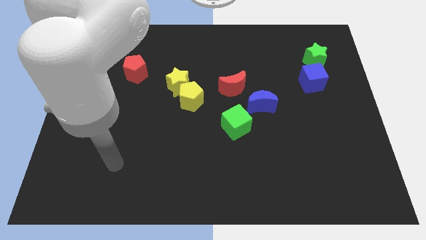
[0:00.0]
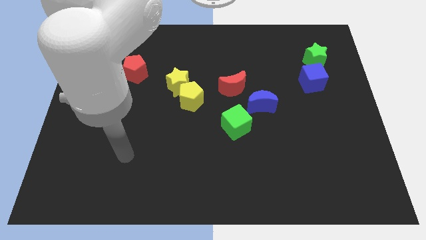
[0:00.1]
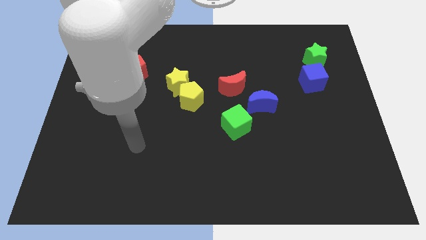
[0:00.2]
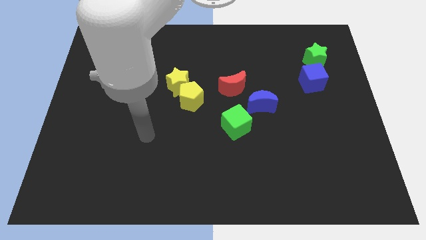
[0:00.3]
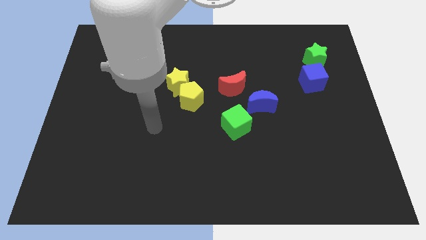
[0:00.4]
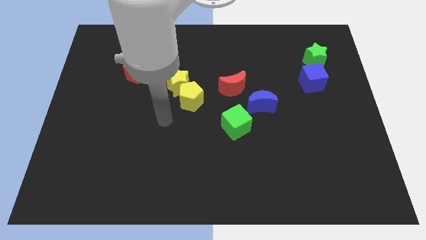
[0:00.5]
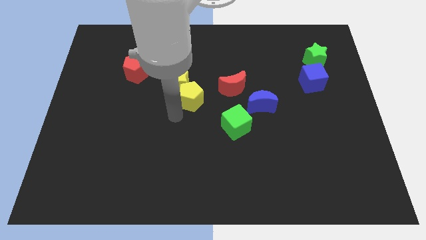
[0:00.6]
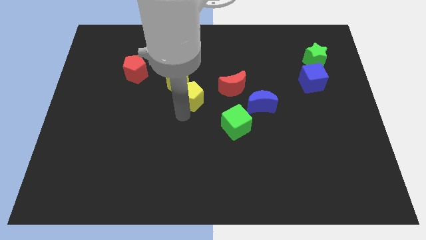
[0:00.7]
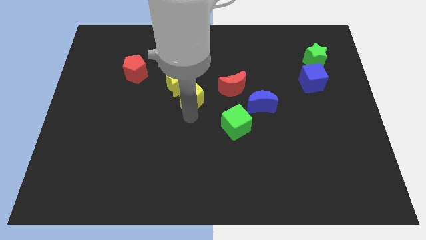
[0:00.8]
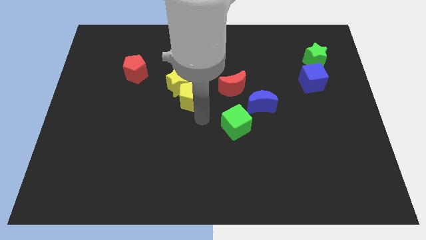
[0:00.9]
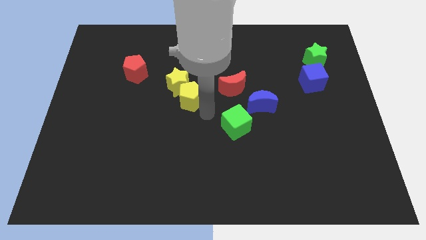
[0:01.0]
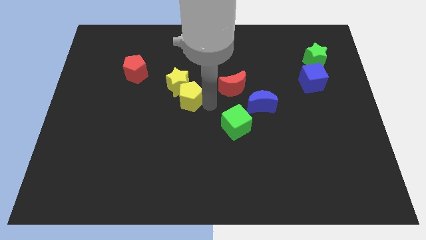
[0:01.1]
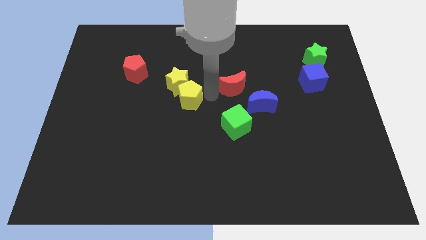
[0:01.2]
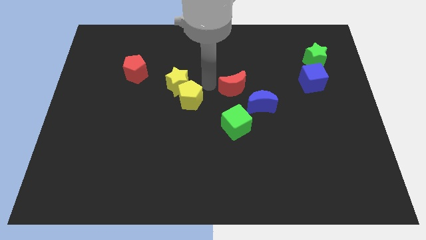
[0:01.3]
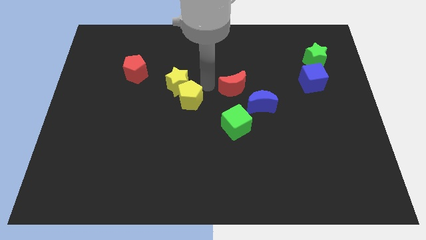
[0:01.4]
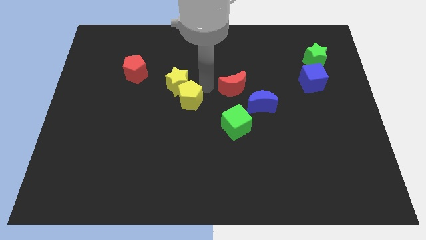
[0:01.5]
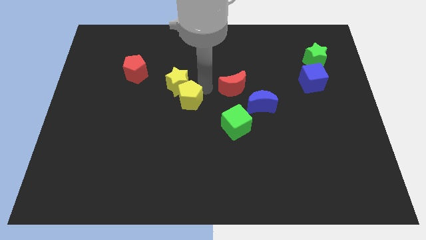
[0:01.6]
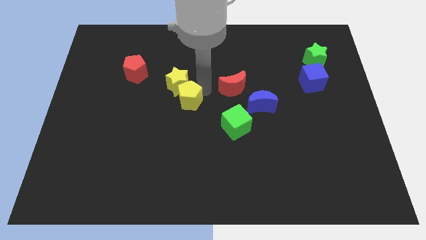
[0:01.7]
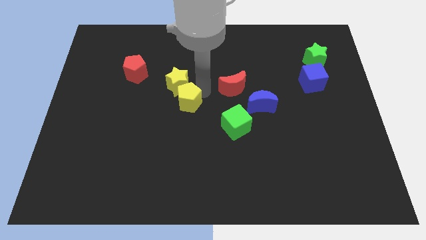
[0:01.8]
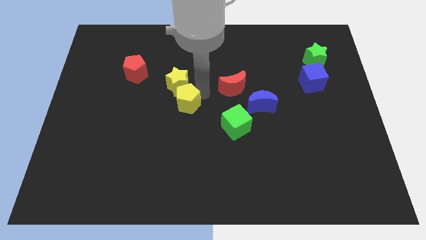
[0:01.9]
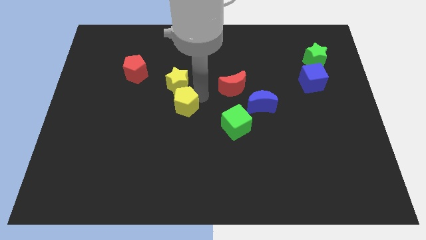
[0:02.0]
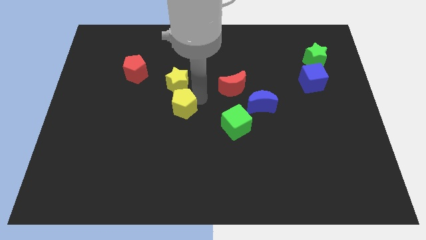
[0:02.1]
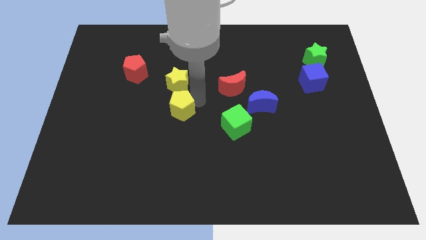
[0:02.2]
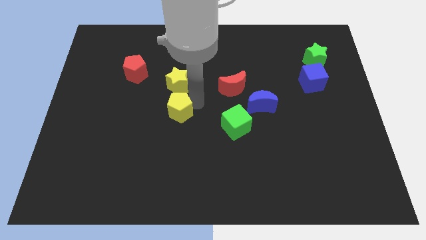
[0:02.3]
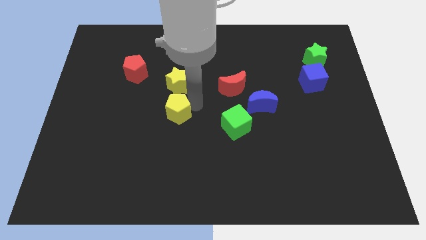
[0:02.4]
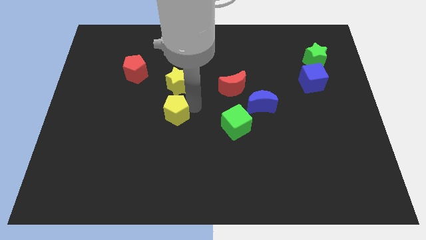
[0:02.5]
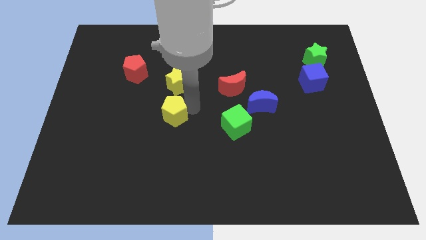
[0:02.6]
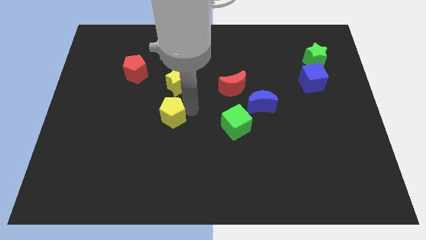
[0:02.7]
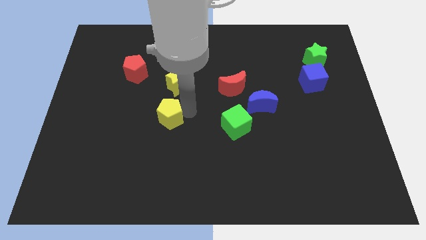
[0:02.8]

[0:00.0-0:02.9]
push the yellow pentagon diagonally down and left a little

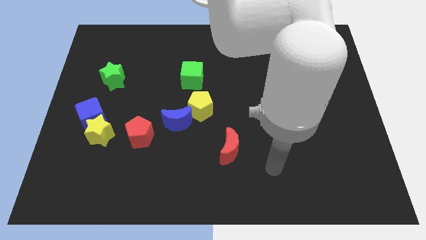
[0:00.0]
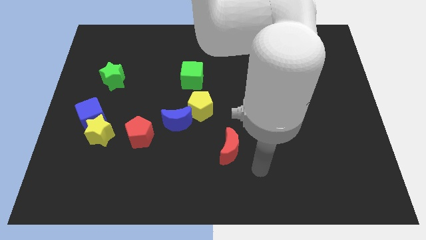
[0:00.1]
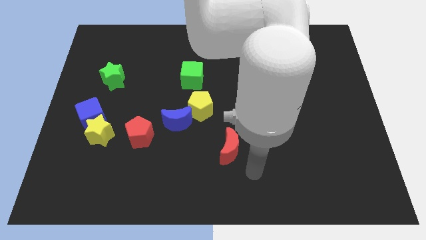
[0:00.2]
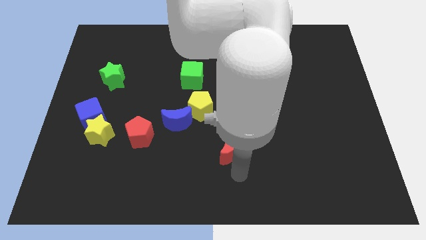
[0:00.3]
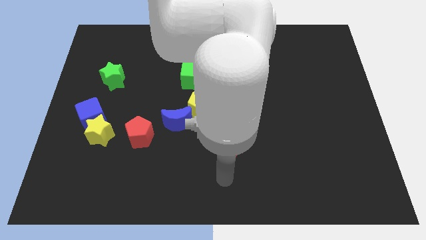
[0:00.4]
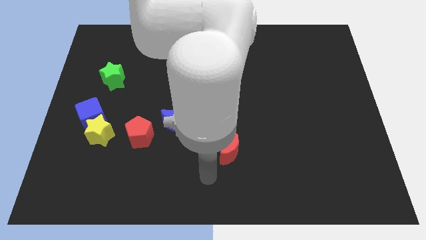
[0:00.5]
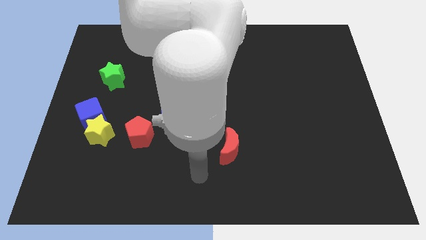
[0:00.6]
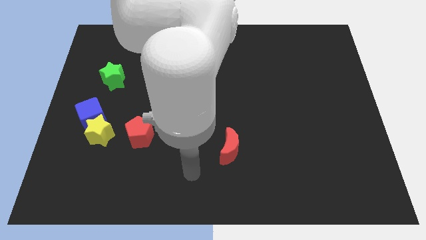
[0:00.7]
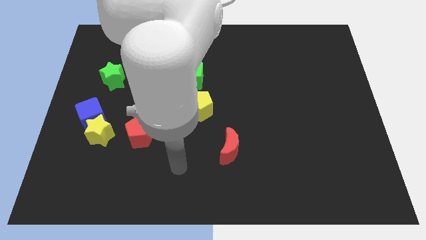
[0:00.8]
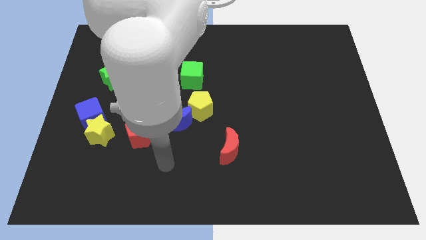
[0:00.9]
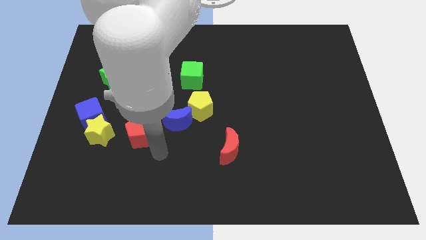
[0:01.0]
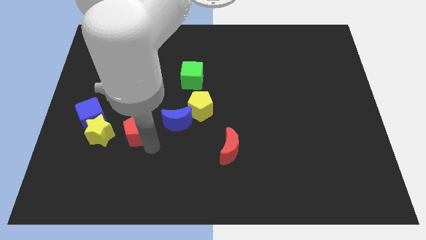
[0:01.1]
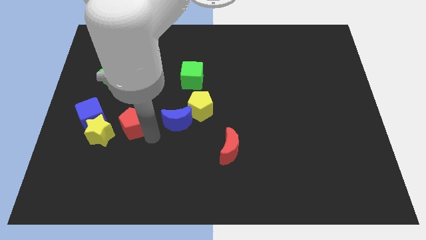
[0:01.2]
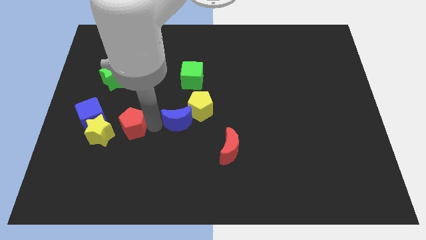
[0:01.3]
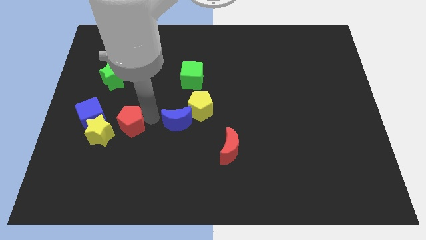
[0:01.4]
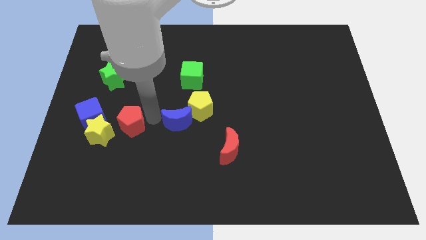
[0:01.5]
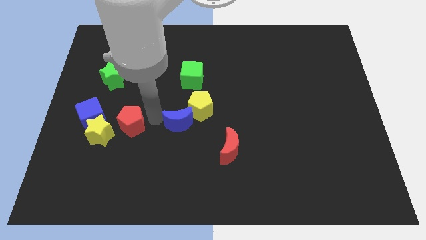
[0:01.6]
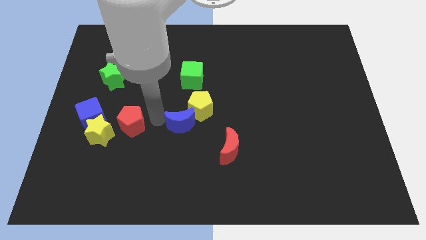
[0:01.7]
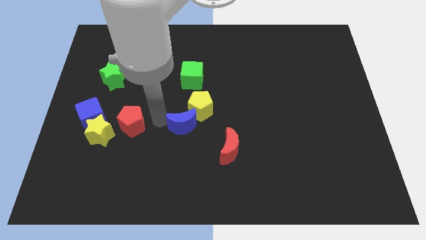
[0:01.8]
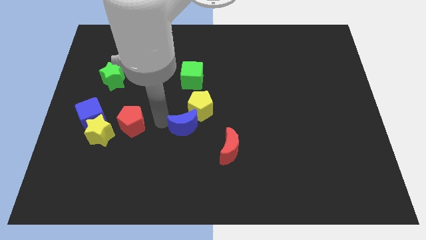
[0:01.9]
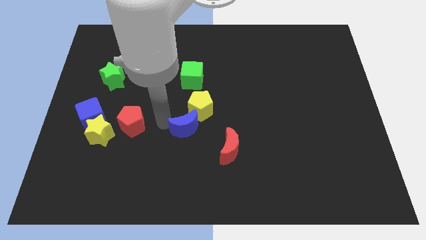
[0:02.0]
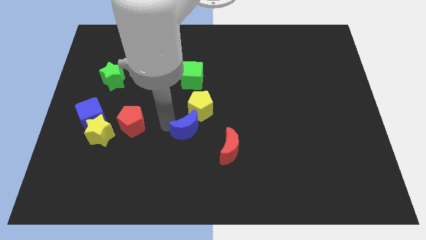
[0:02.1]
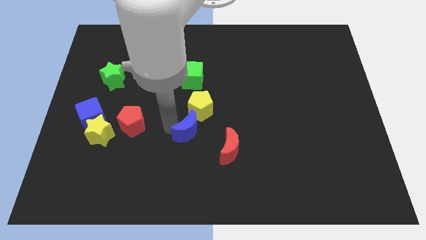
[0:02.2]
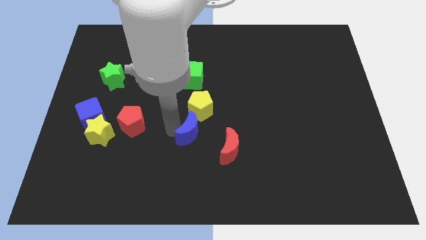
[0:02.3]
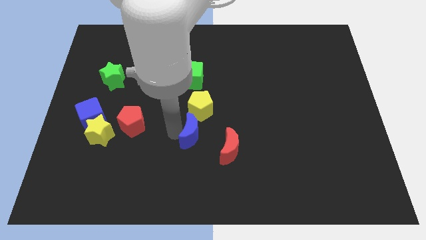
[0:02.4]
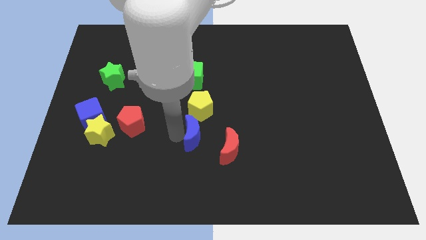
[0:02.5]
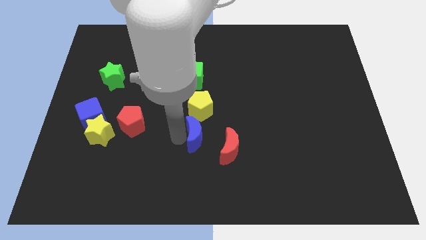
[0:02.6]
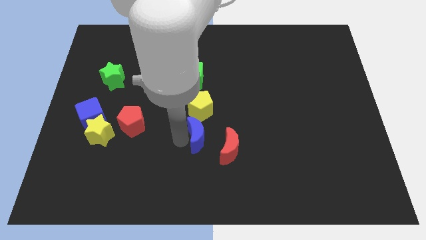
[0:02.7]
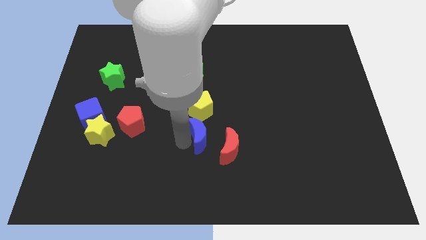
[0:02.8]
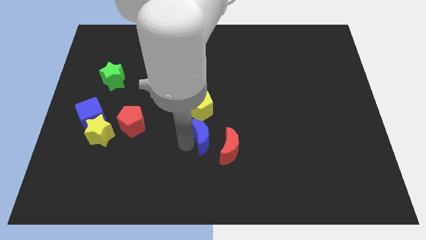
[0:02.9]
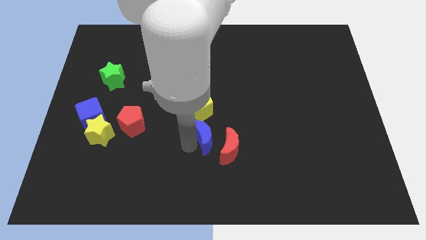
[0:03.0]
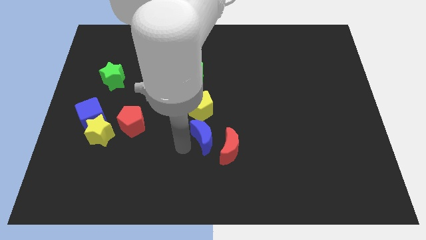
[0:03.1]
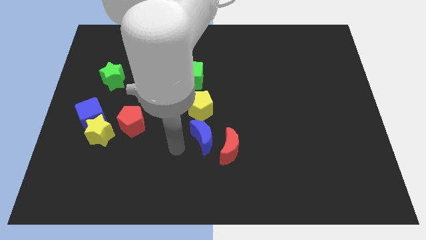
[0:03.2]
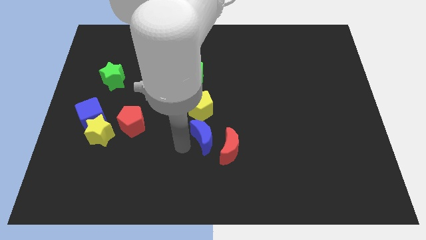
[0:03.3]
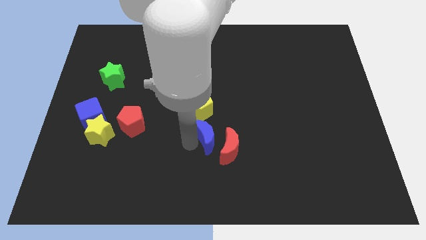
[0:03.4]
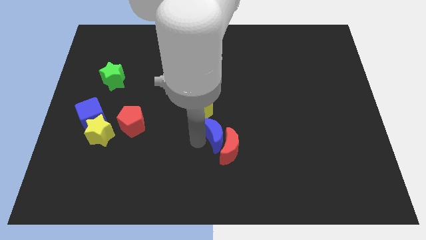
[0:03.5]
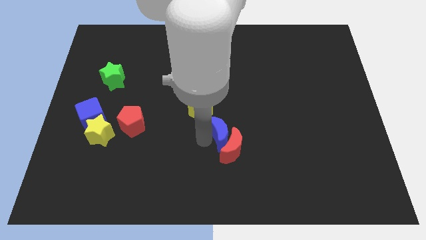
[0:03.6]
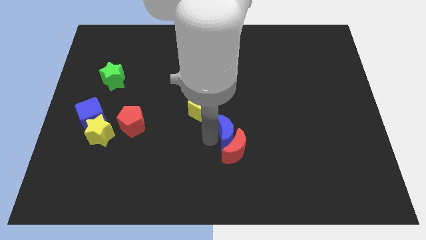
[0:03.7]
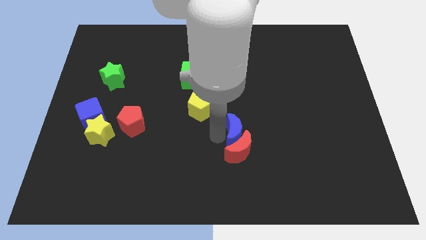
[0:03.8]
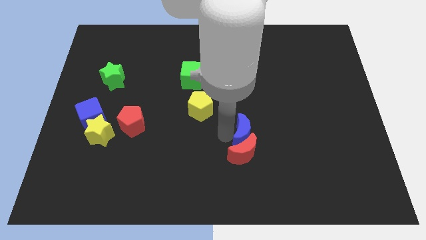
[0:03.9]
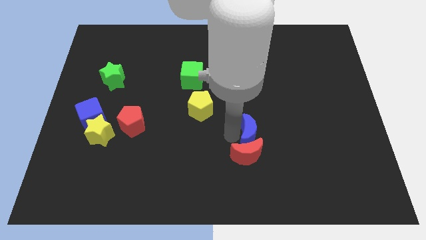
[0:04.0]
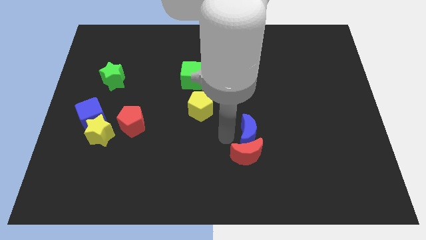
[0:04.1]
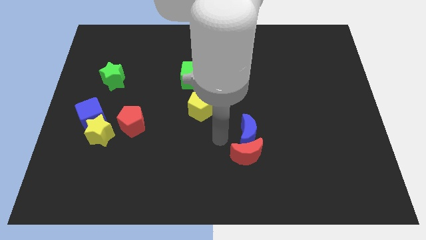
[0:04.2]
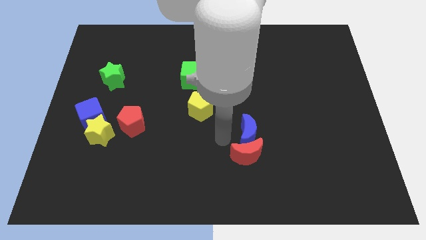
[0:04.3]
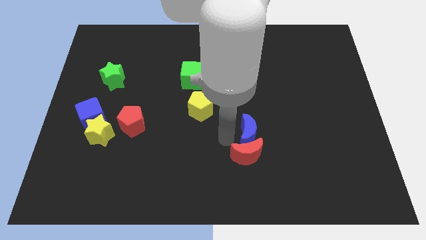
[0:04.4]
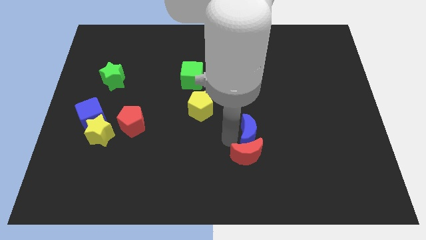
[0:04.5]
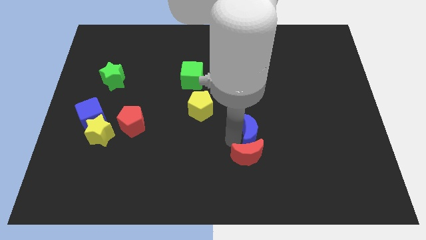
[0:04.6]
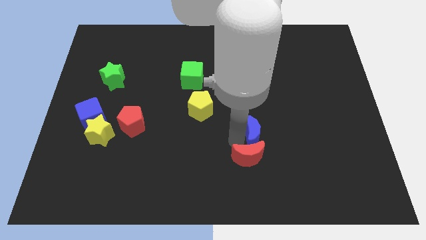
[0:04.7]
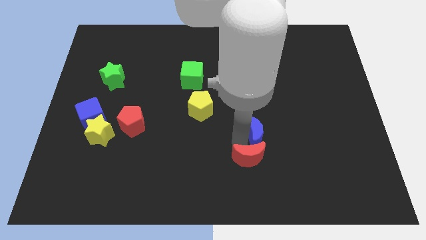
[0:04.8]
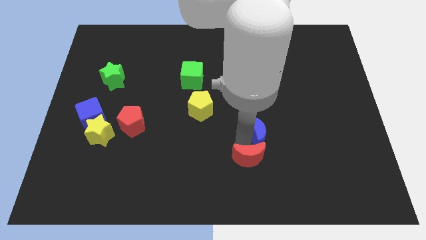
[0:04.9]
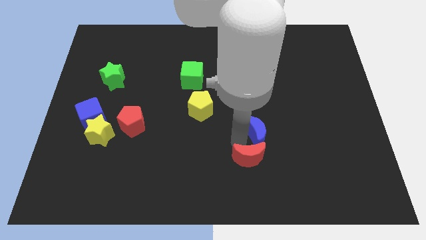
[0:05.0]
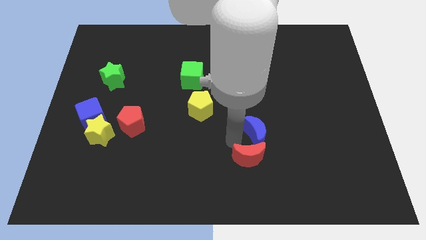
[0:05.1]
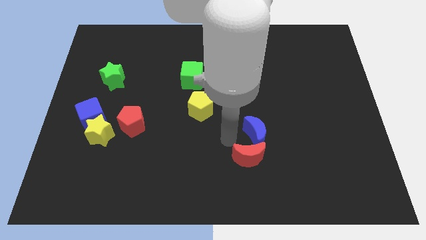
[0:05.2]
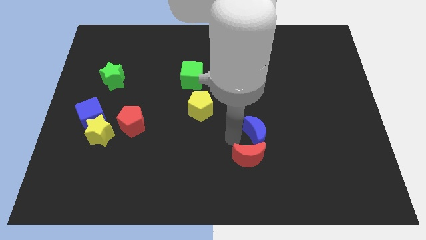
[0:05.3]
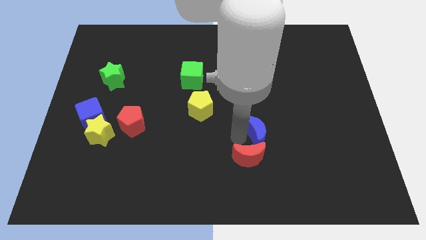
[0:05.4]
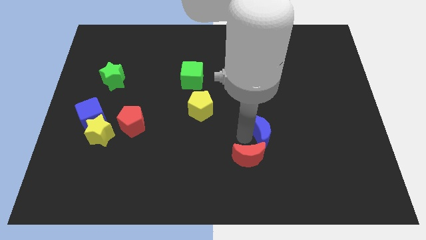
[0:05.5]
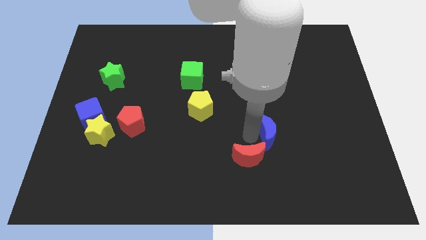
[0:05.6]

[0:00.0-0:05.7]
push the blue moon to the right
